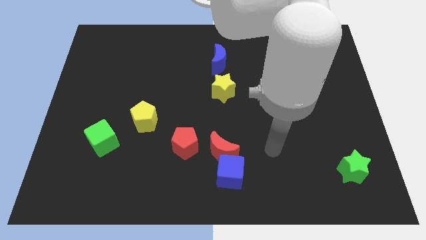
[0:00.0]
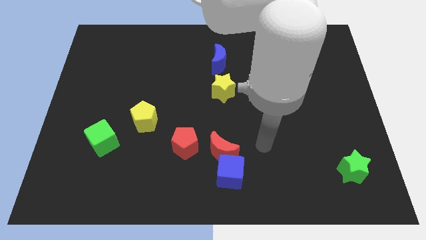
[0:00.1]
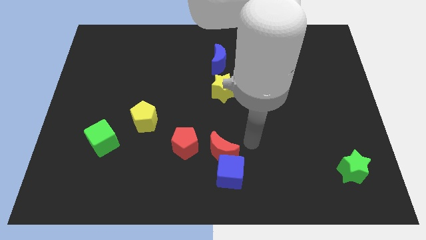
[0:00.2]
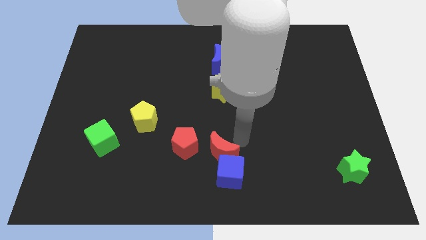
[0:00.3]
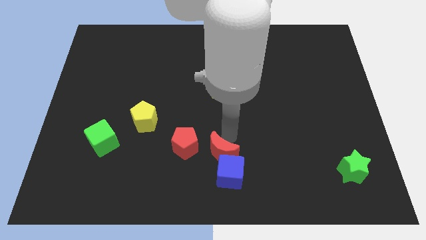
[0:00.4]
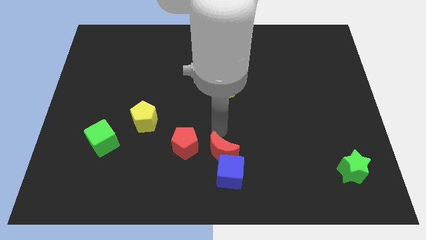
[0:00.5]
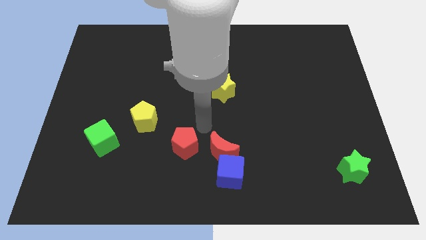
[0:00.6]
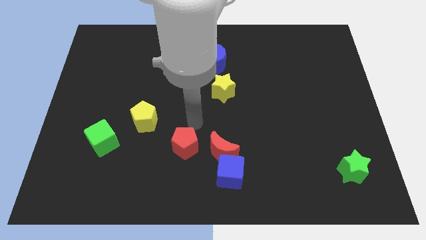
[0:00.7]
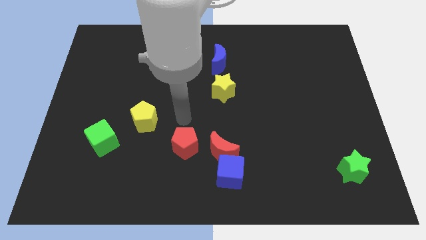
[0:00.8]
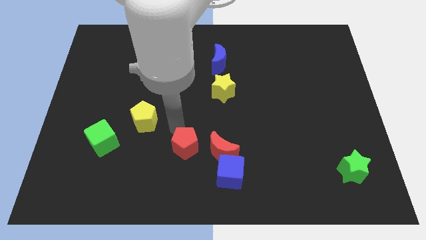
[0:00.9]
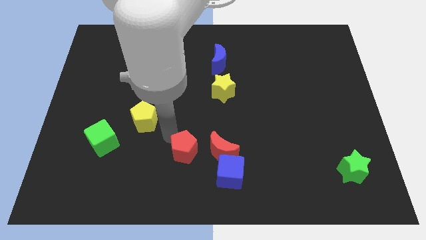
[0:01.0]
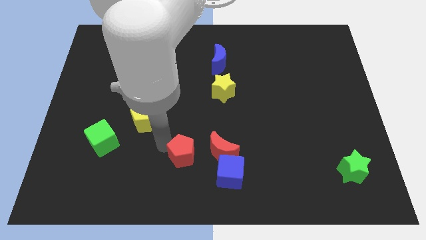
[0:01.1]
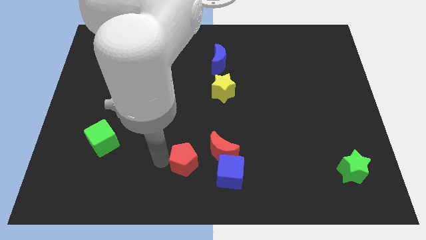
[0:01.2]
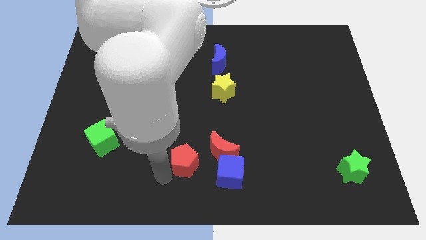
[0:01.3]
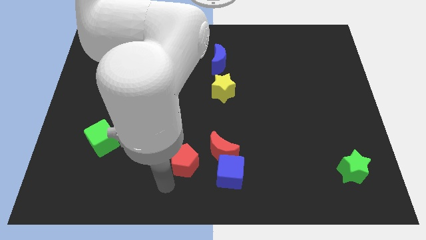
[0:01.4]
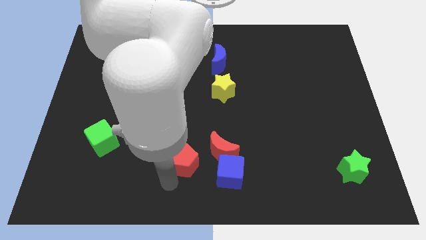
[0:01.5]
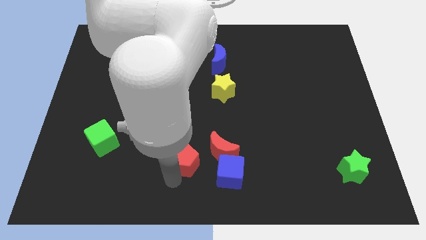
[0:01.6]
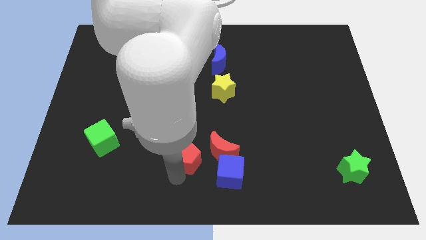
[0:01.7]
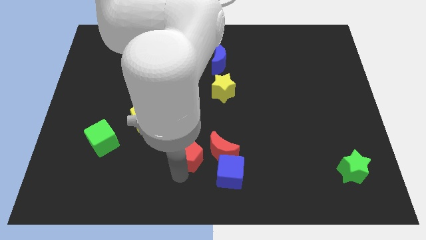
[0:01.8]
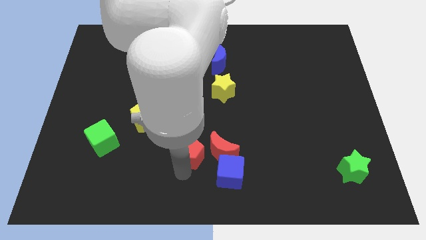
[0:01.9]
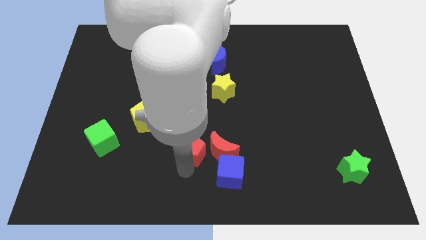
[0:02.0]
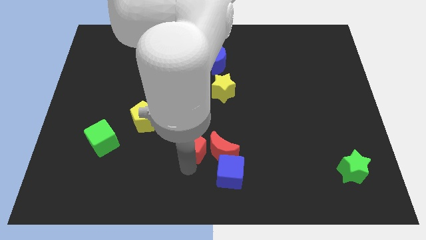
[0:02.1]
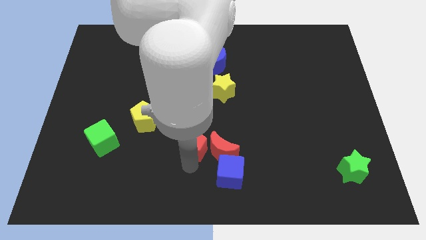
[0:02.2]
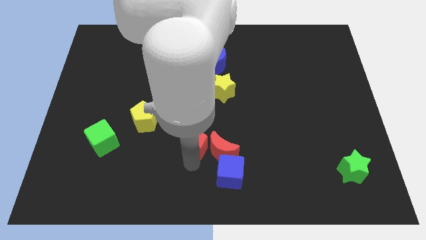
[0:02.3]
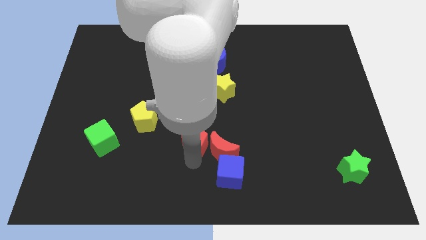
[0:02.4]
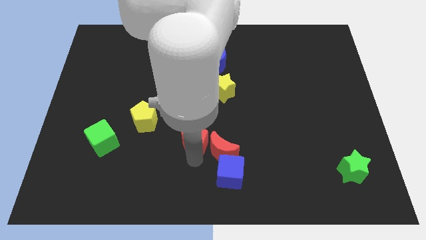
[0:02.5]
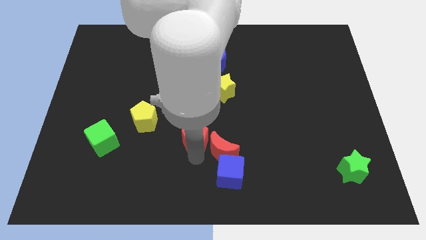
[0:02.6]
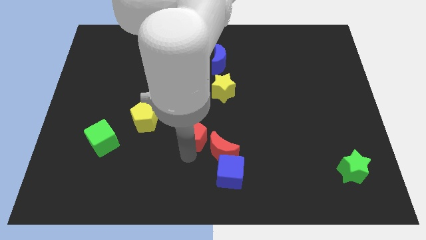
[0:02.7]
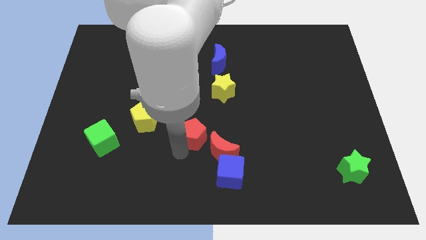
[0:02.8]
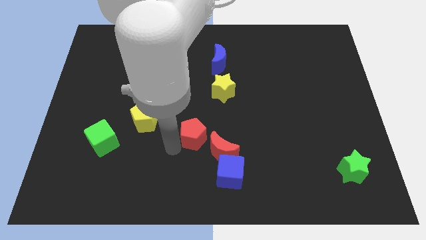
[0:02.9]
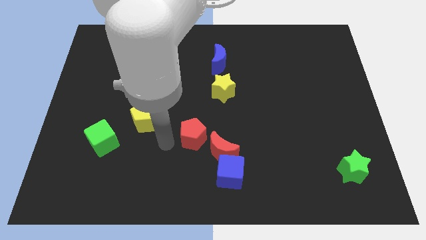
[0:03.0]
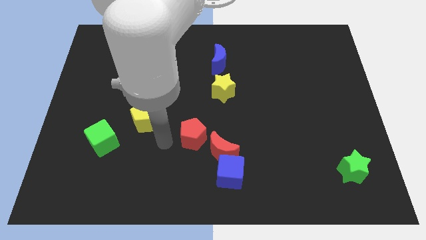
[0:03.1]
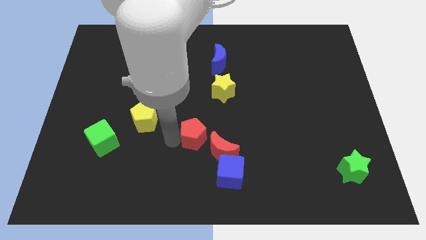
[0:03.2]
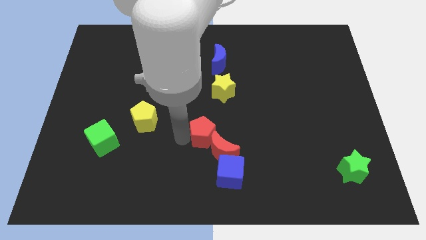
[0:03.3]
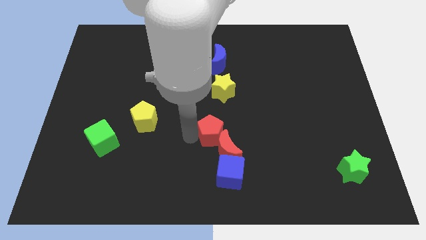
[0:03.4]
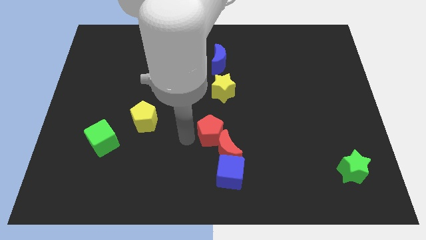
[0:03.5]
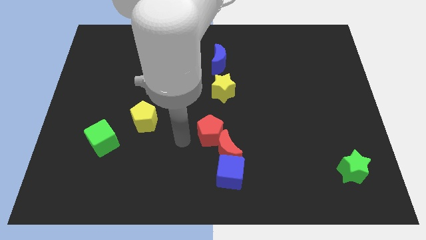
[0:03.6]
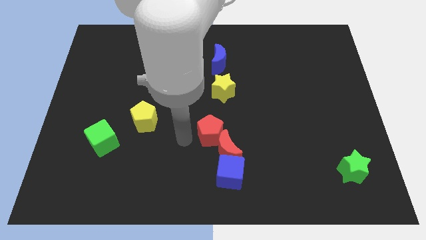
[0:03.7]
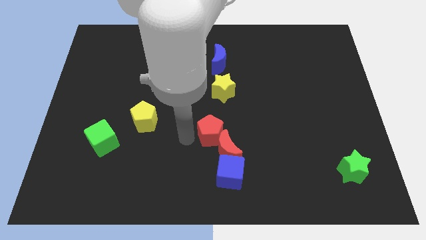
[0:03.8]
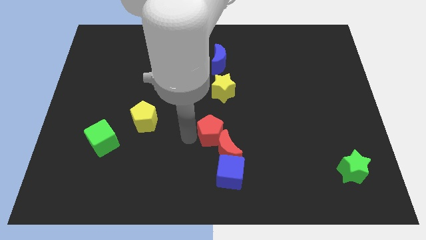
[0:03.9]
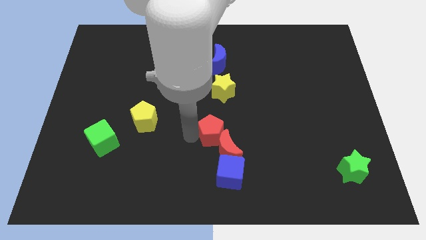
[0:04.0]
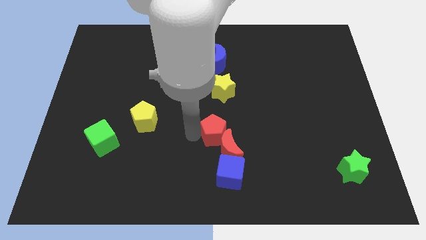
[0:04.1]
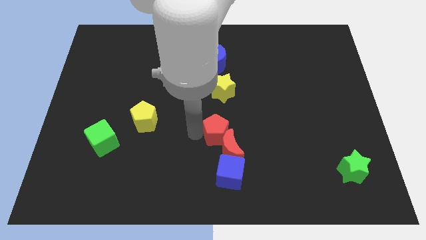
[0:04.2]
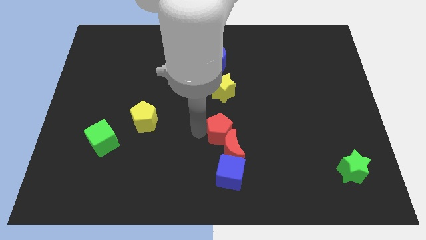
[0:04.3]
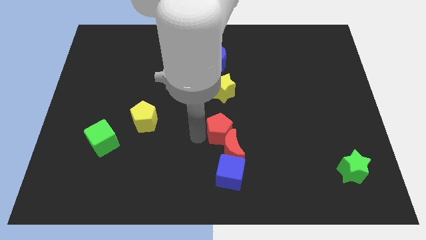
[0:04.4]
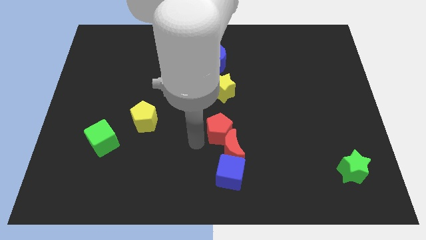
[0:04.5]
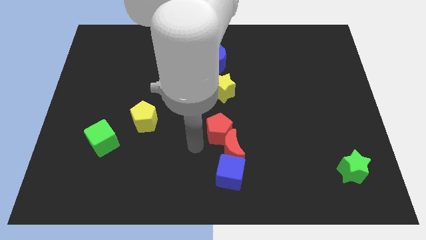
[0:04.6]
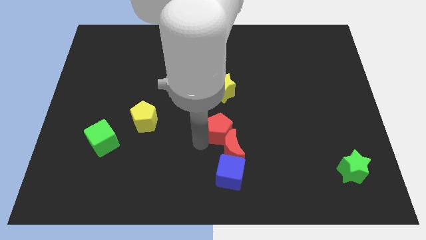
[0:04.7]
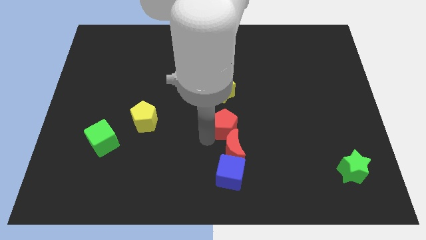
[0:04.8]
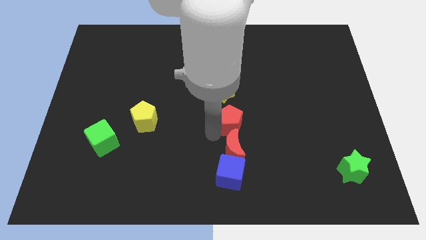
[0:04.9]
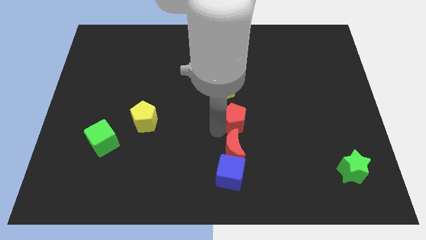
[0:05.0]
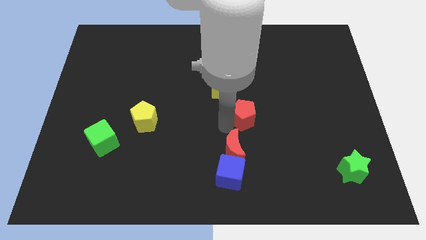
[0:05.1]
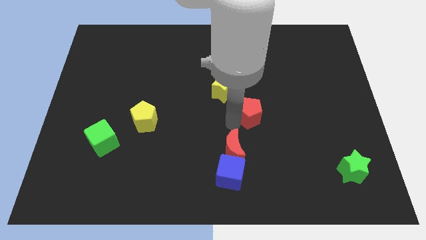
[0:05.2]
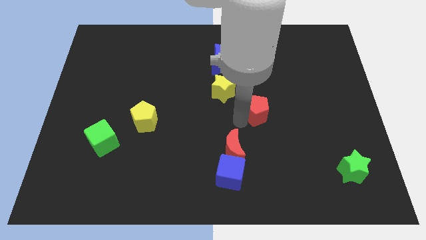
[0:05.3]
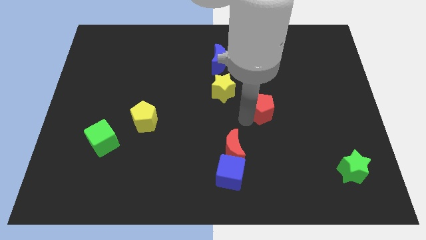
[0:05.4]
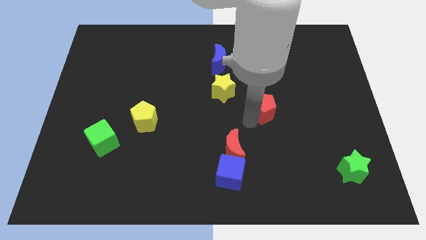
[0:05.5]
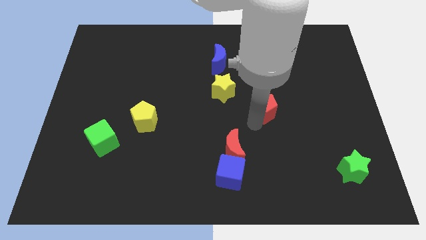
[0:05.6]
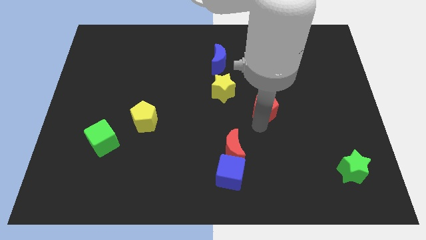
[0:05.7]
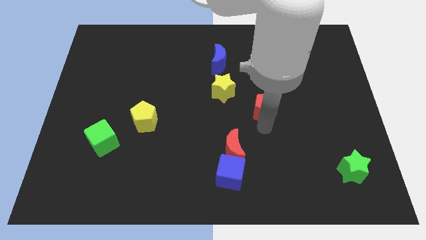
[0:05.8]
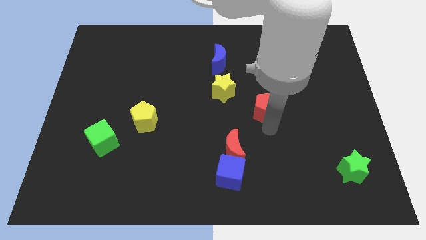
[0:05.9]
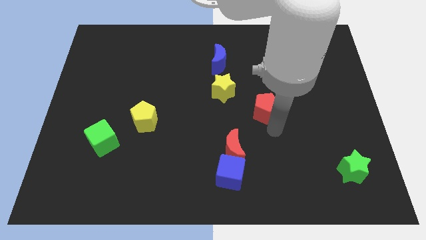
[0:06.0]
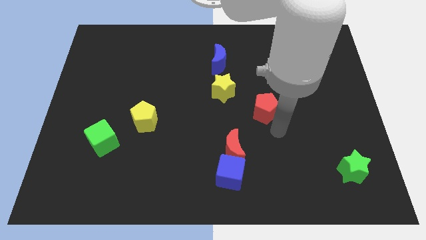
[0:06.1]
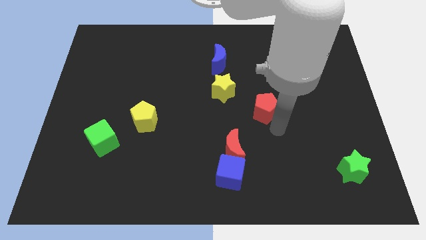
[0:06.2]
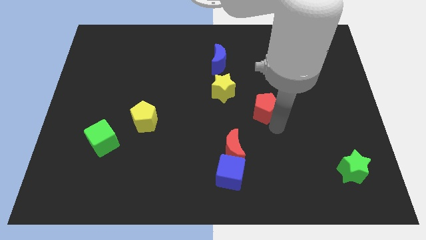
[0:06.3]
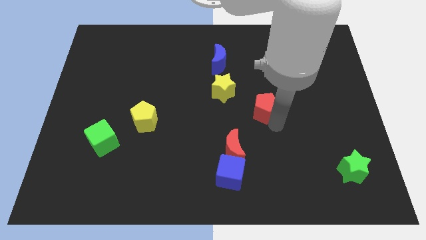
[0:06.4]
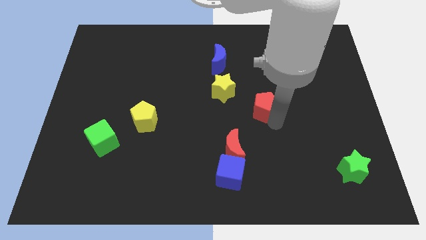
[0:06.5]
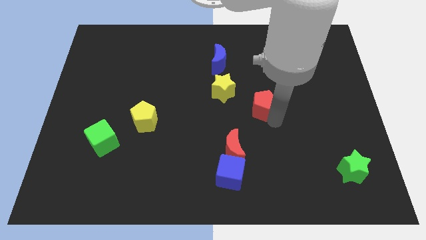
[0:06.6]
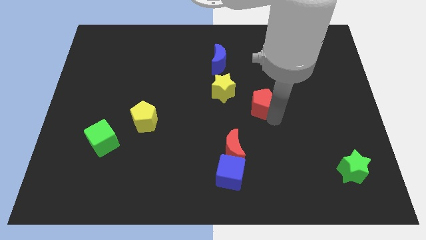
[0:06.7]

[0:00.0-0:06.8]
move the red pentagon just right of the yellow star
